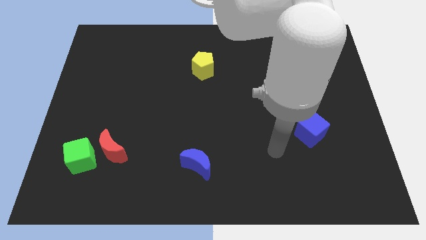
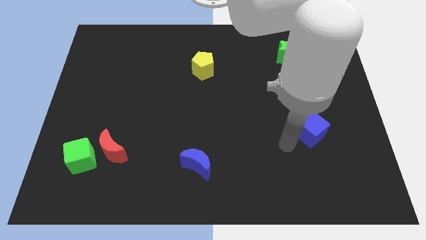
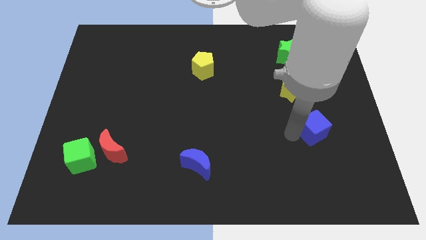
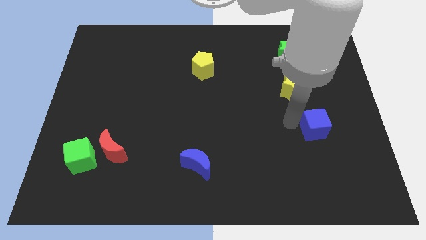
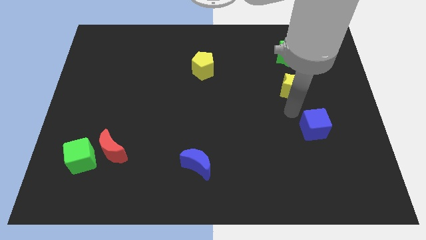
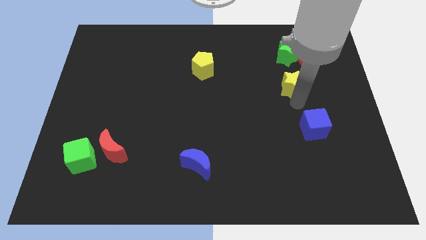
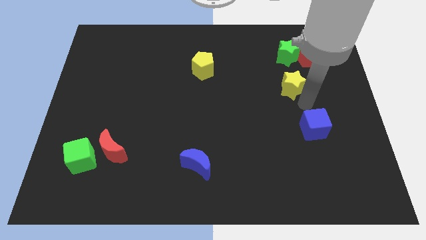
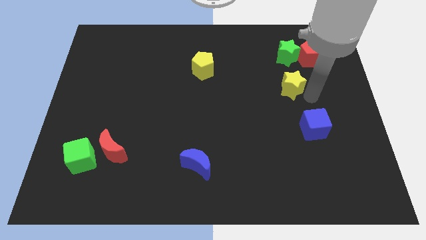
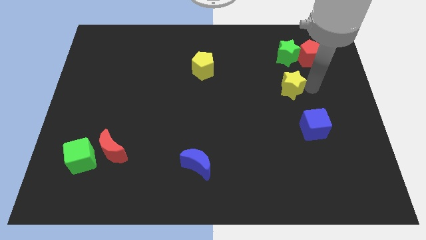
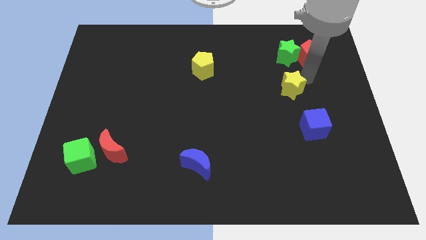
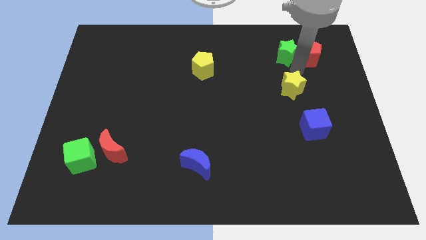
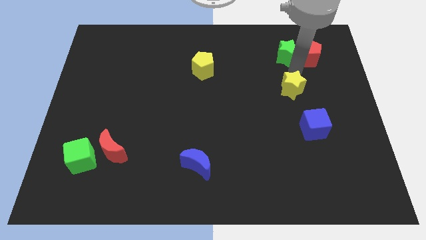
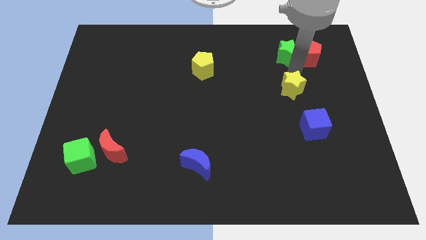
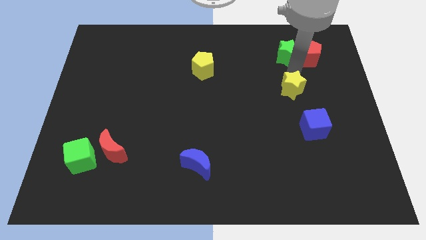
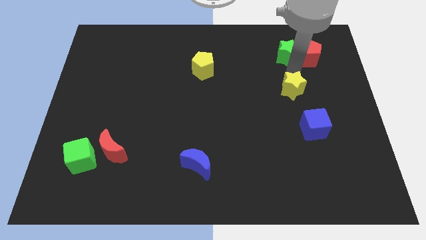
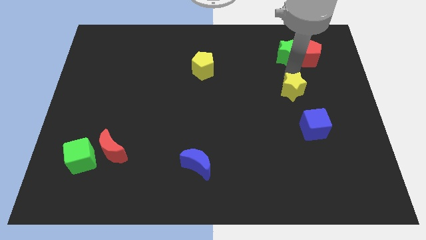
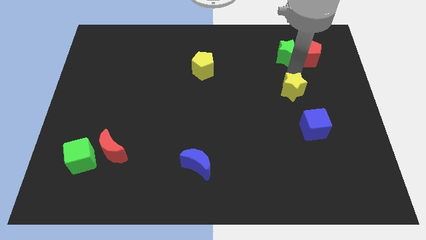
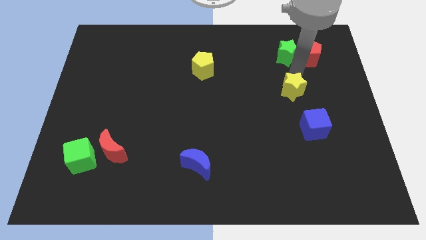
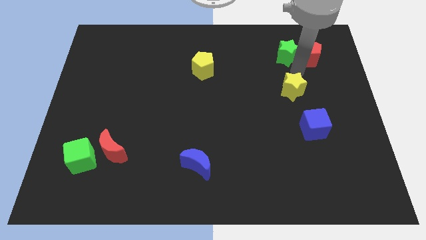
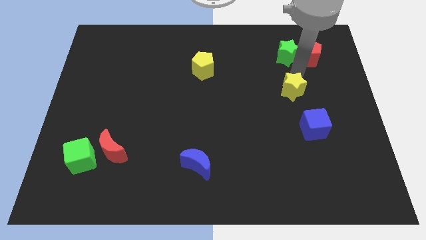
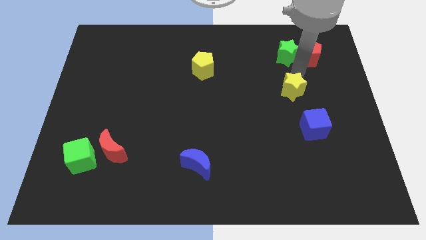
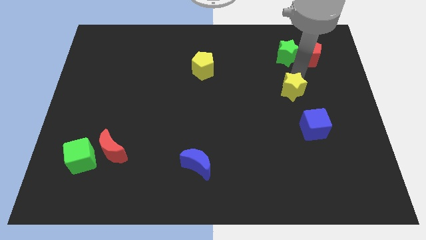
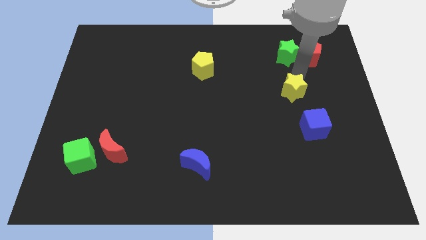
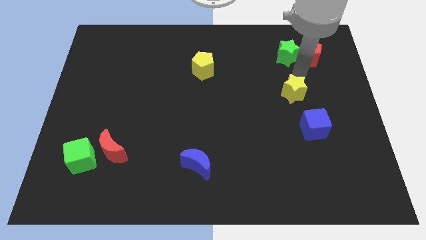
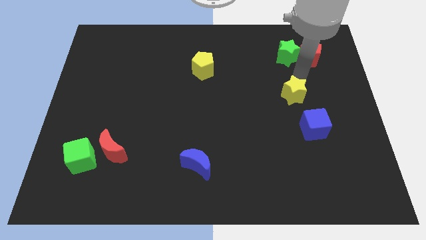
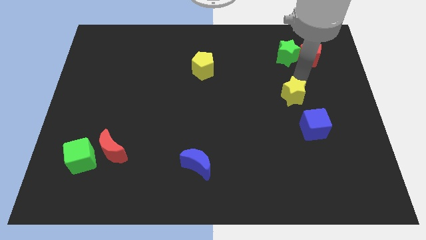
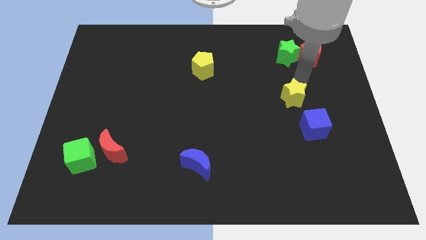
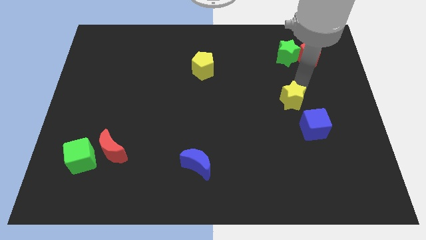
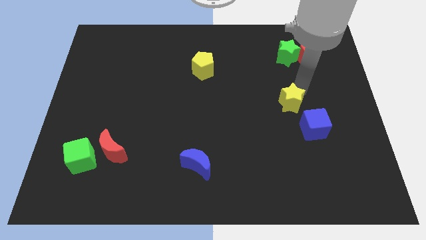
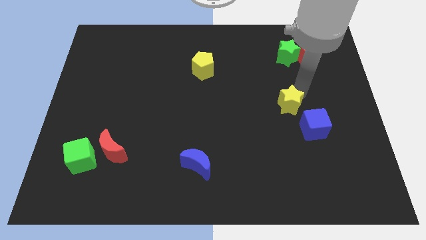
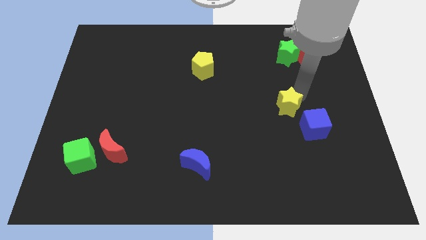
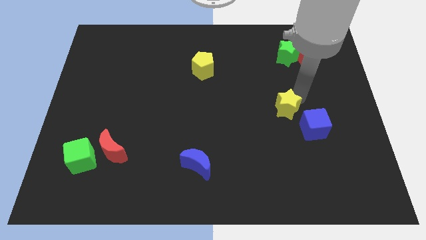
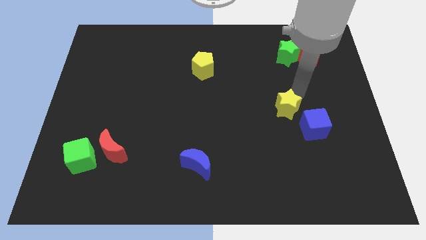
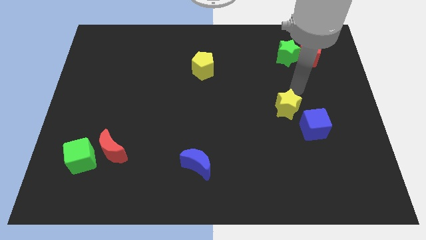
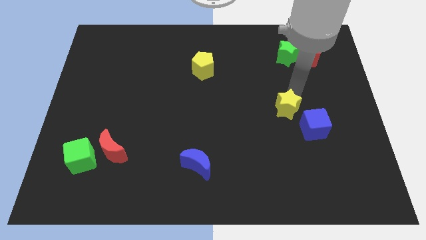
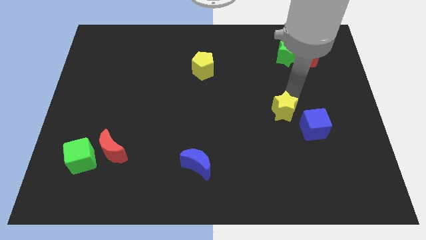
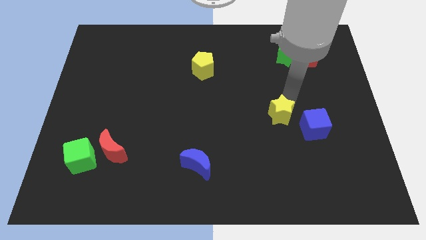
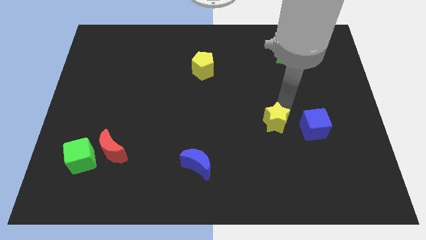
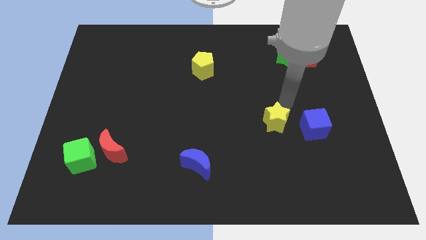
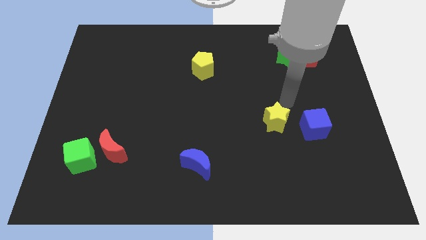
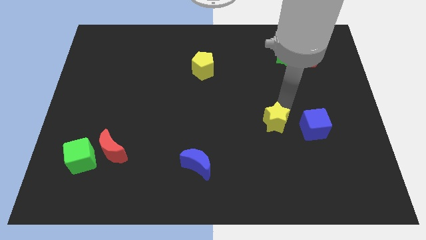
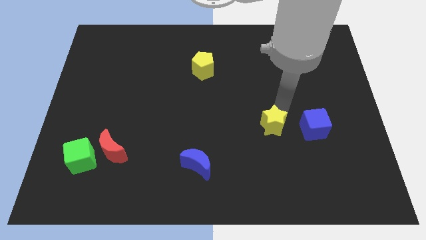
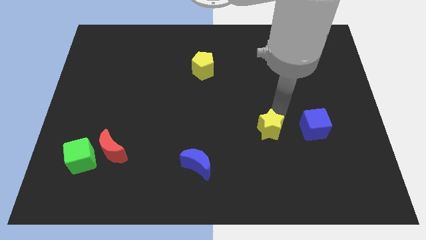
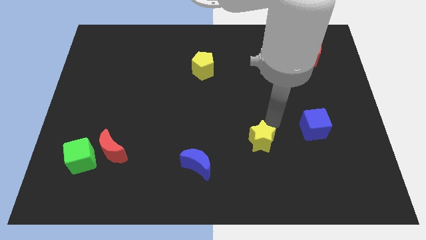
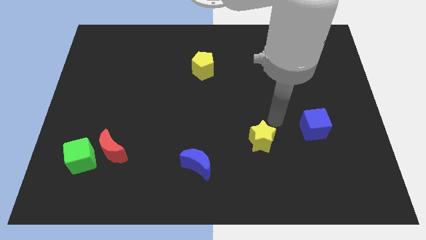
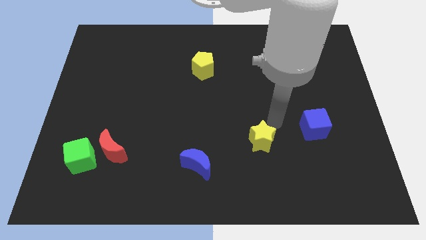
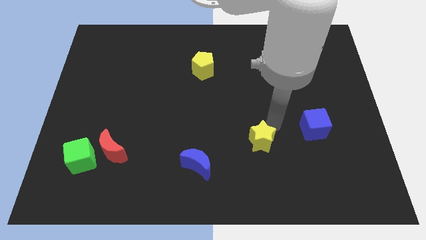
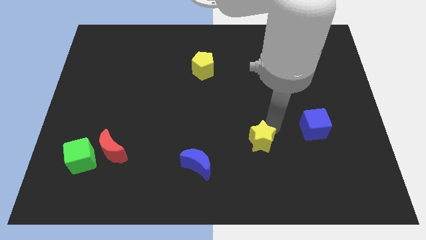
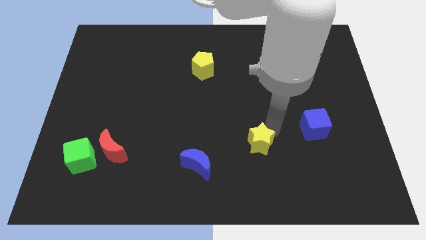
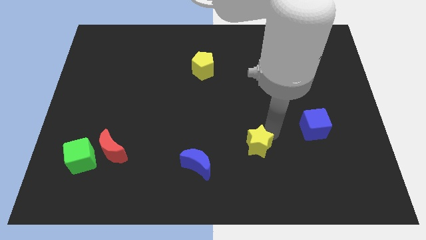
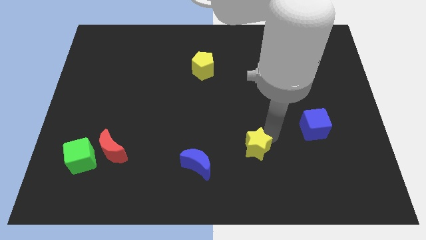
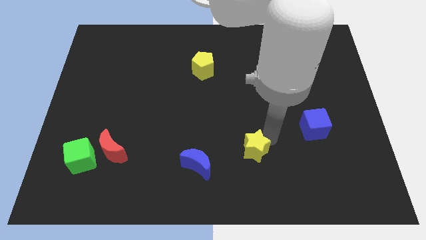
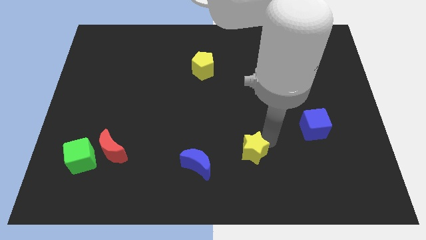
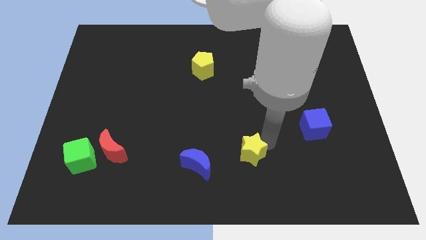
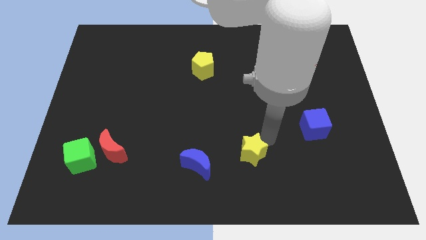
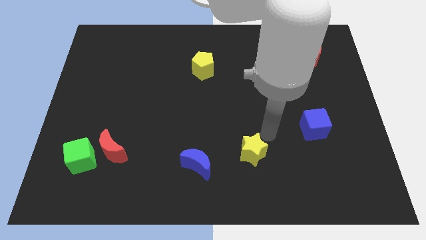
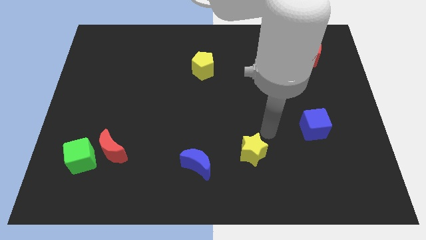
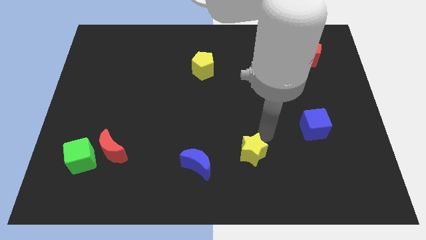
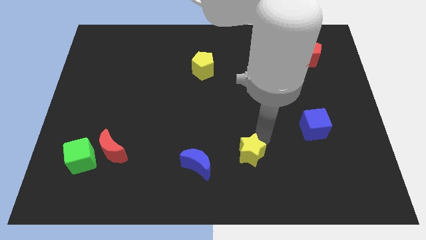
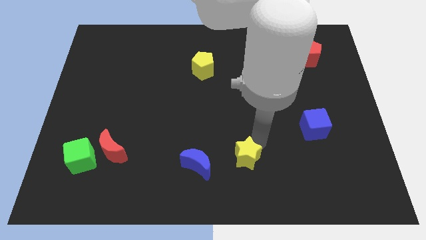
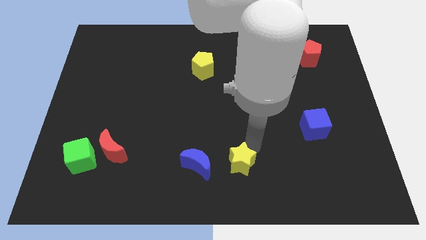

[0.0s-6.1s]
put the yellow star to the bottom
